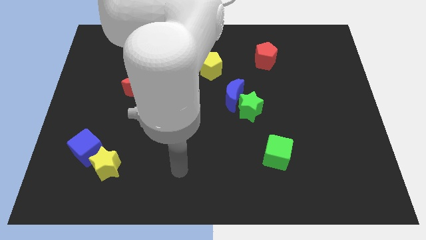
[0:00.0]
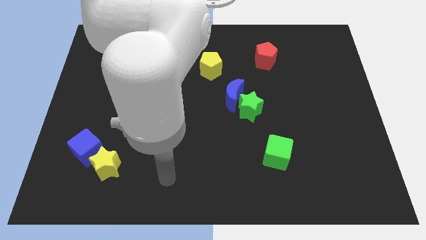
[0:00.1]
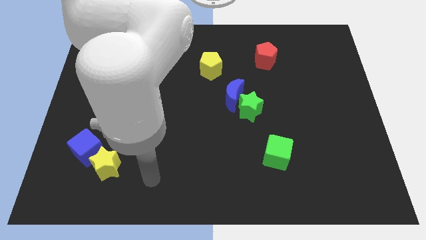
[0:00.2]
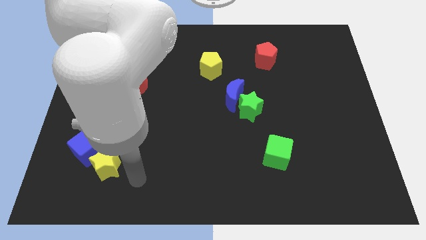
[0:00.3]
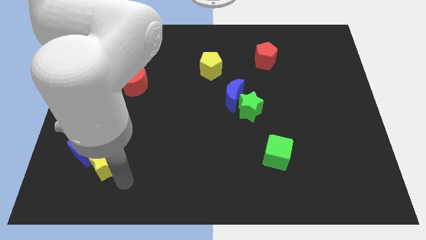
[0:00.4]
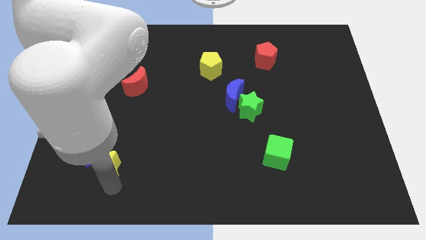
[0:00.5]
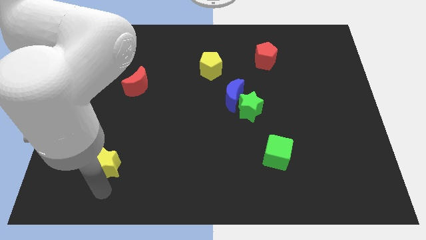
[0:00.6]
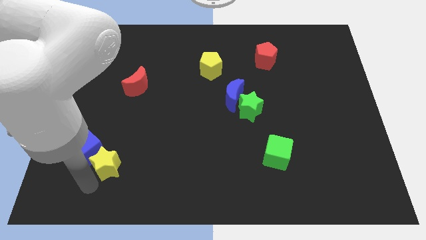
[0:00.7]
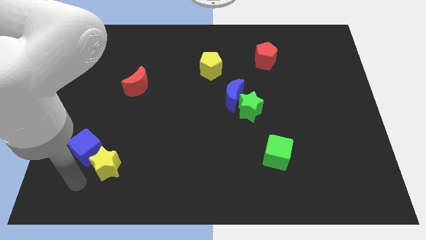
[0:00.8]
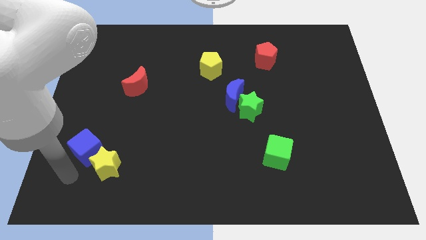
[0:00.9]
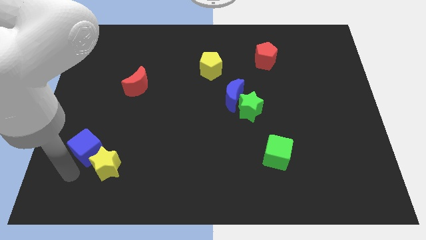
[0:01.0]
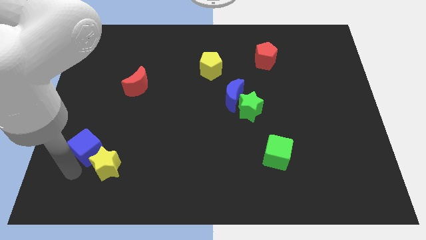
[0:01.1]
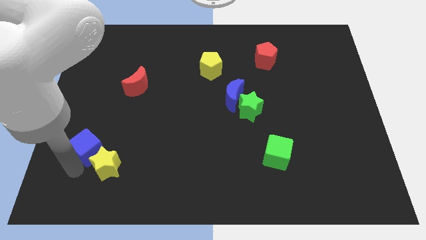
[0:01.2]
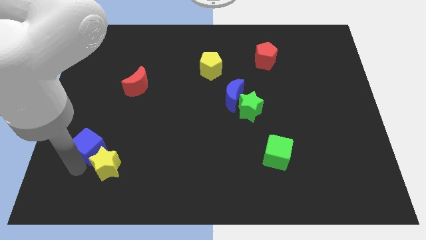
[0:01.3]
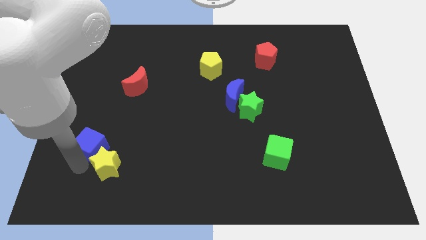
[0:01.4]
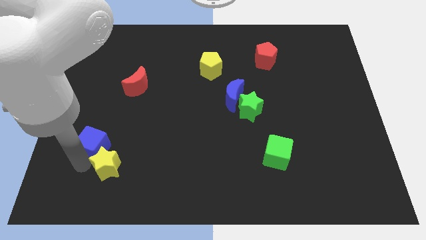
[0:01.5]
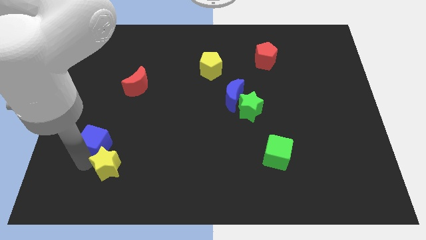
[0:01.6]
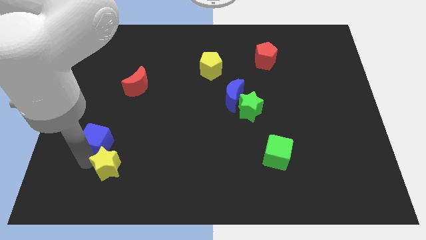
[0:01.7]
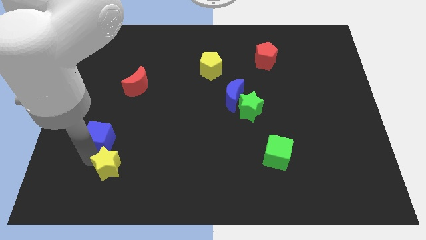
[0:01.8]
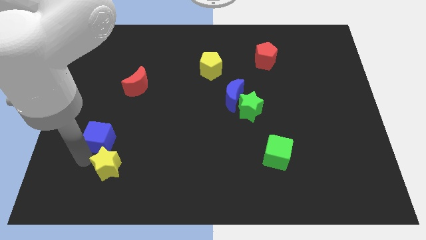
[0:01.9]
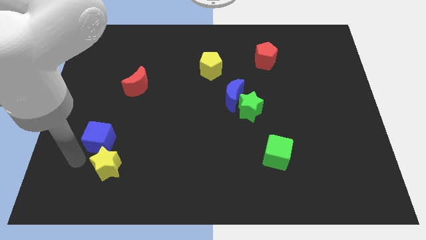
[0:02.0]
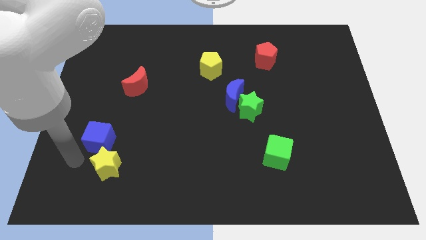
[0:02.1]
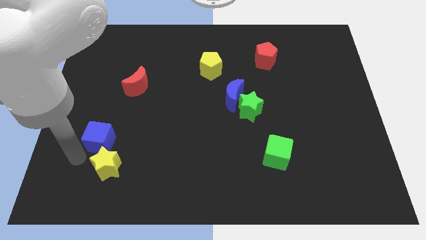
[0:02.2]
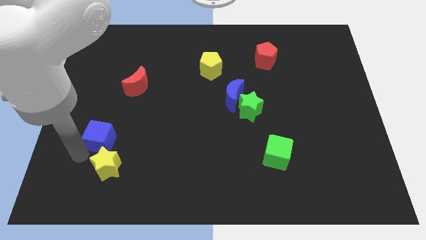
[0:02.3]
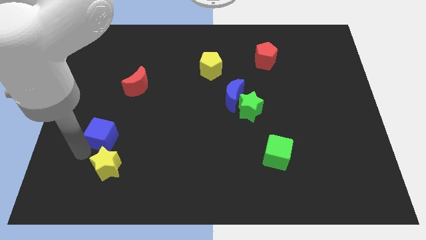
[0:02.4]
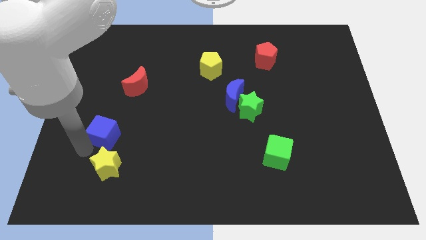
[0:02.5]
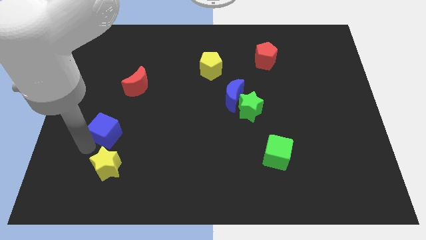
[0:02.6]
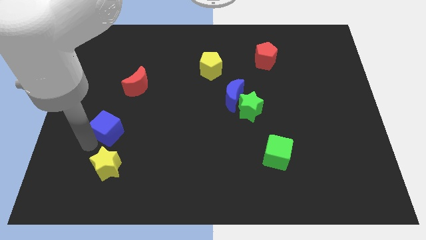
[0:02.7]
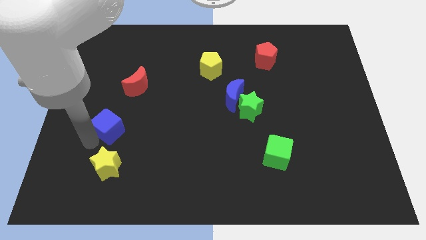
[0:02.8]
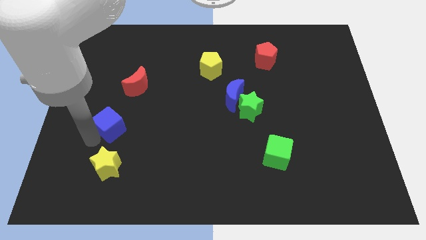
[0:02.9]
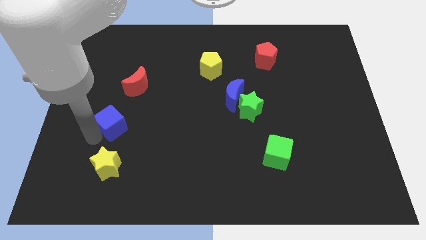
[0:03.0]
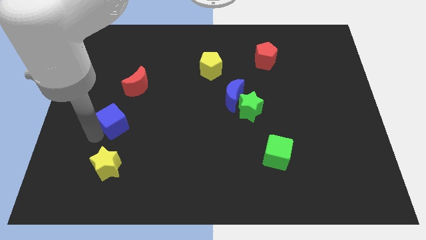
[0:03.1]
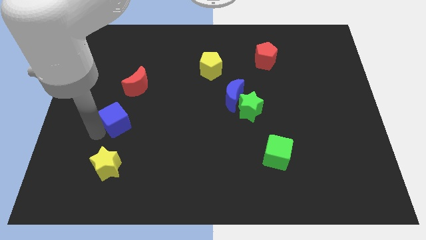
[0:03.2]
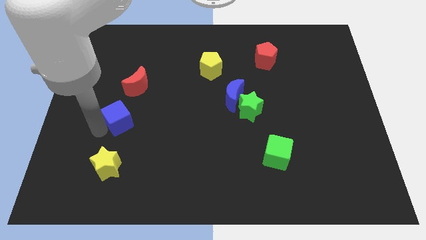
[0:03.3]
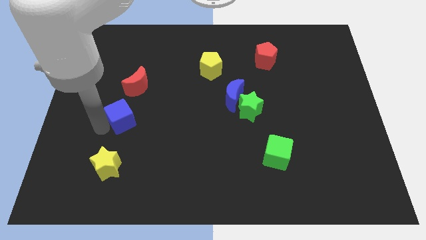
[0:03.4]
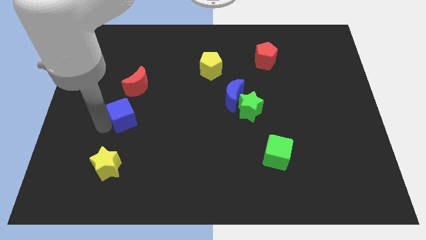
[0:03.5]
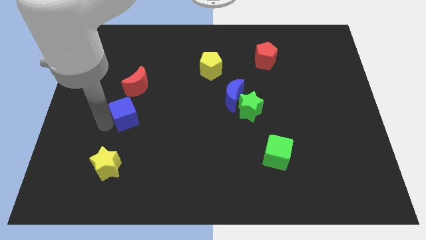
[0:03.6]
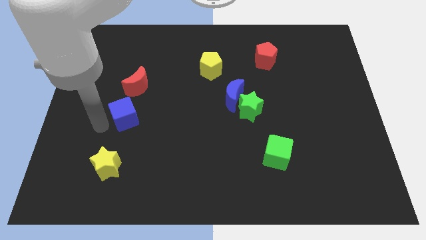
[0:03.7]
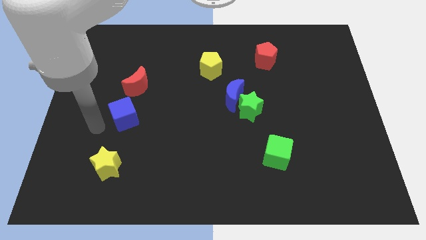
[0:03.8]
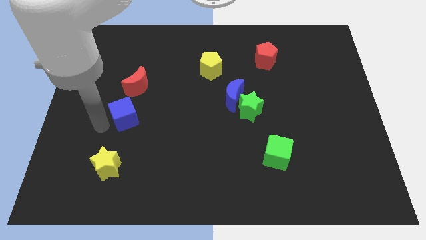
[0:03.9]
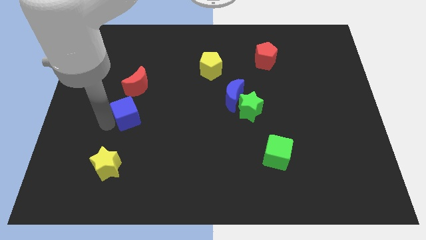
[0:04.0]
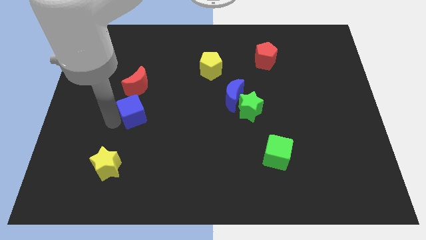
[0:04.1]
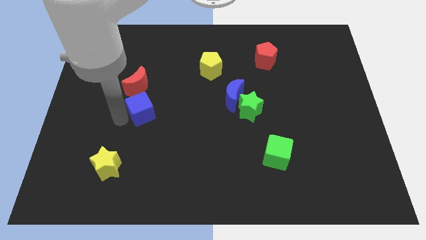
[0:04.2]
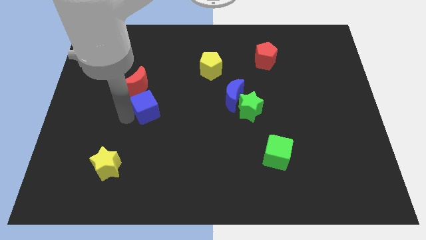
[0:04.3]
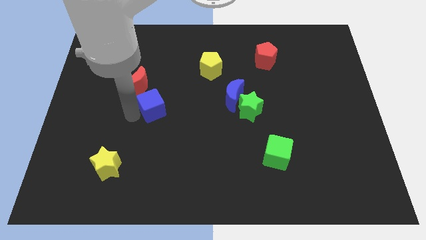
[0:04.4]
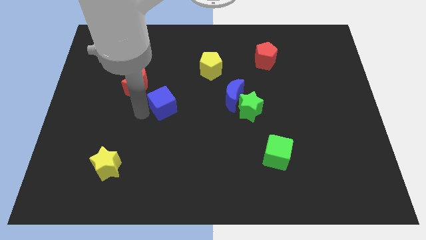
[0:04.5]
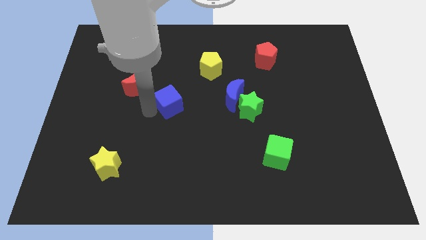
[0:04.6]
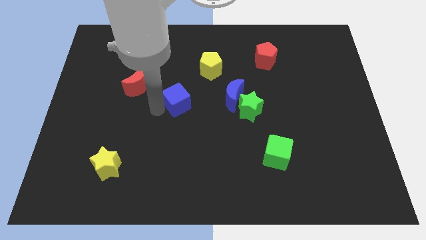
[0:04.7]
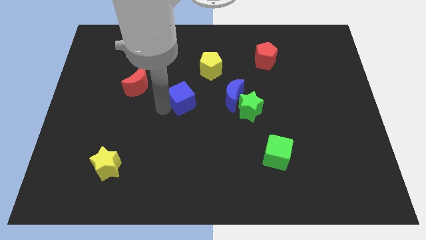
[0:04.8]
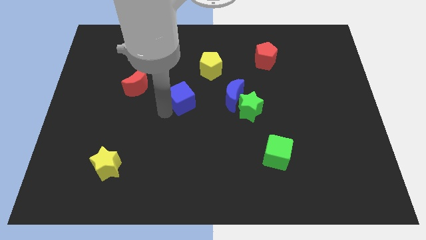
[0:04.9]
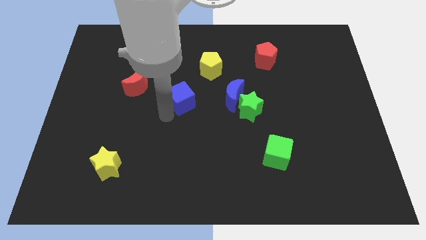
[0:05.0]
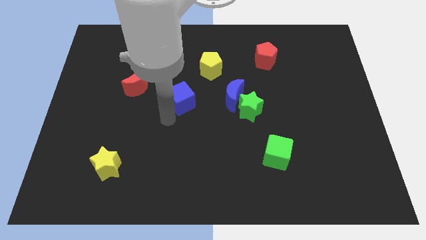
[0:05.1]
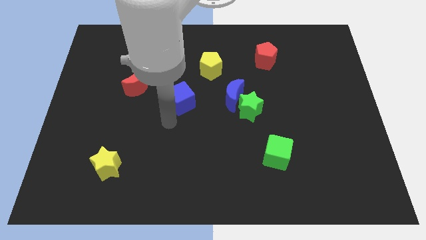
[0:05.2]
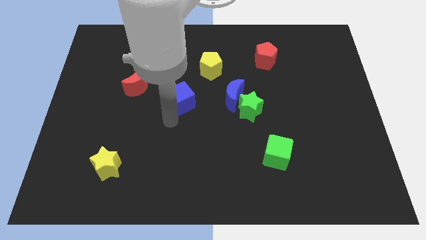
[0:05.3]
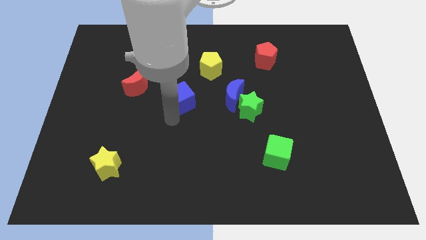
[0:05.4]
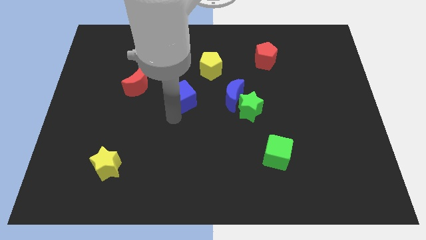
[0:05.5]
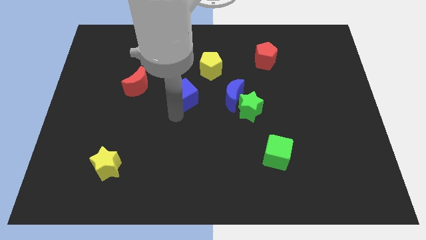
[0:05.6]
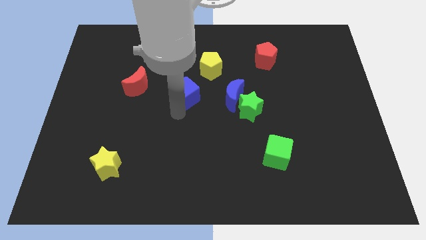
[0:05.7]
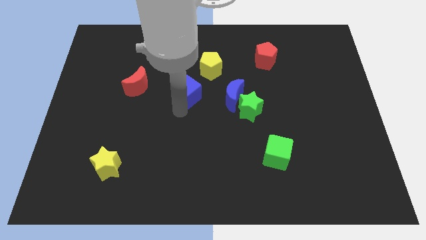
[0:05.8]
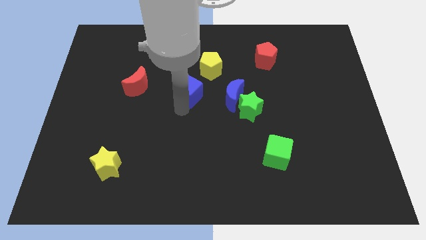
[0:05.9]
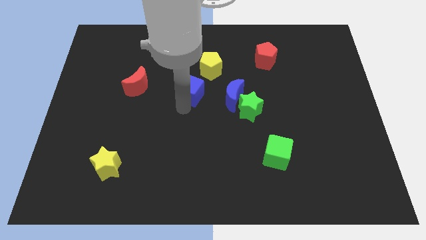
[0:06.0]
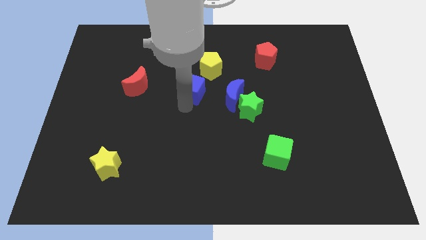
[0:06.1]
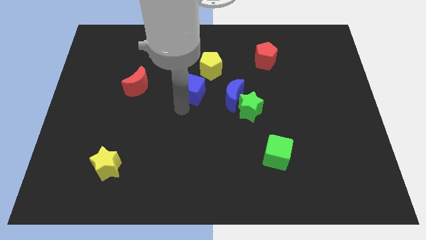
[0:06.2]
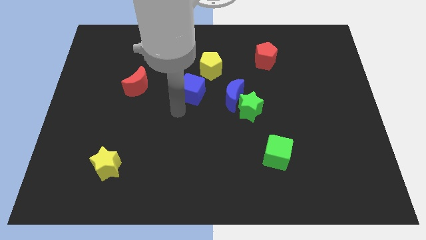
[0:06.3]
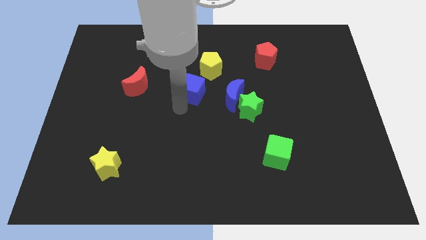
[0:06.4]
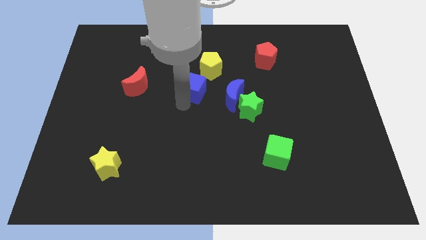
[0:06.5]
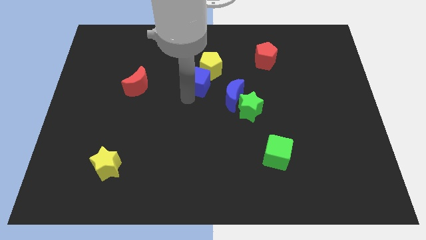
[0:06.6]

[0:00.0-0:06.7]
put the blue cube close to the yellow pentagon
